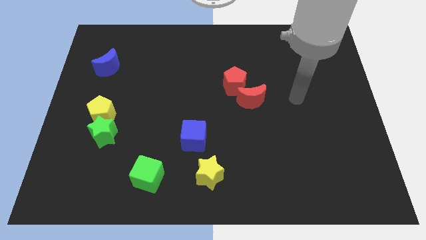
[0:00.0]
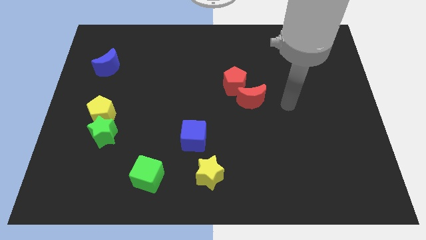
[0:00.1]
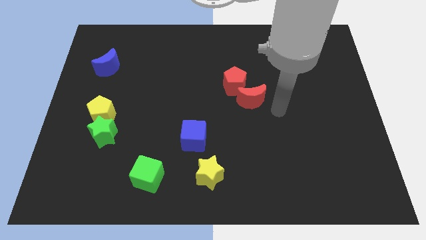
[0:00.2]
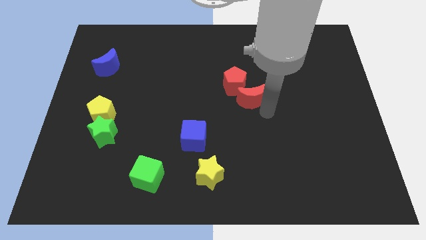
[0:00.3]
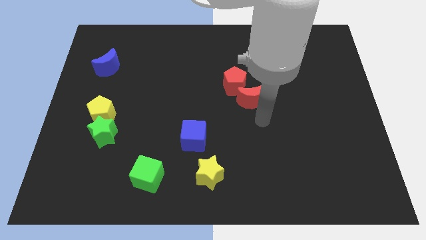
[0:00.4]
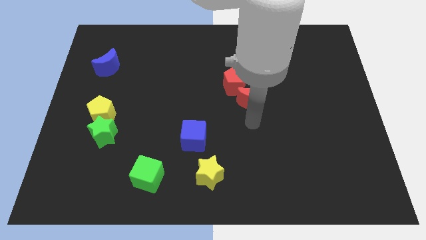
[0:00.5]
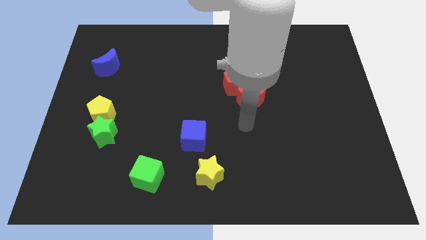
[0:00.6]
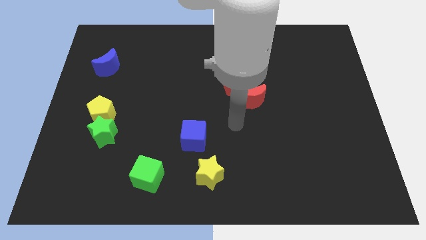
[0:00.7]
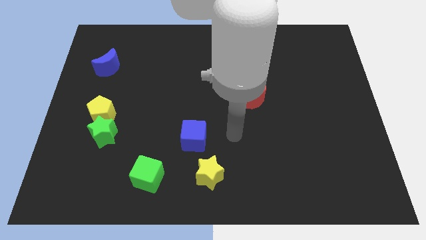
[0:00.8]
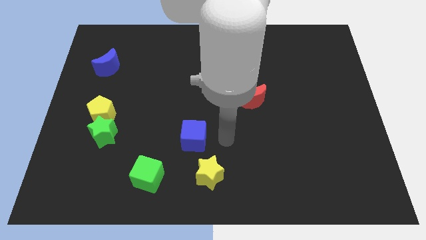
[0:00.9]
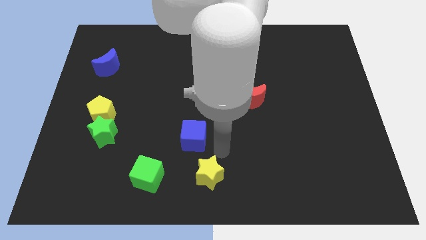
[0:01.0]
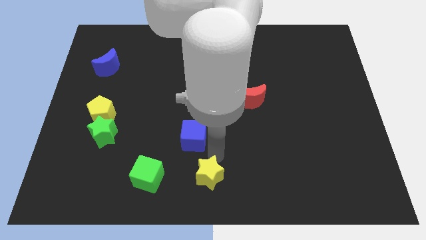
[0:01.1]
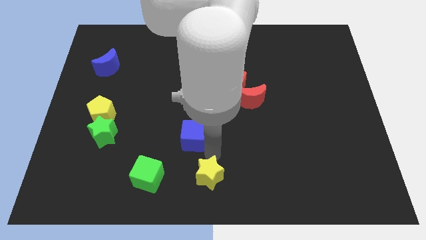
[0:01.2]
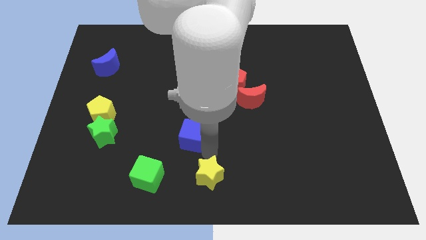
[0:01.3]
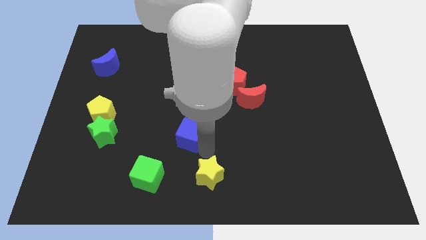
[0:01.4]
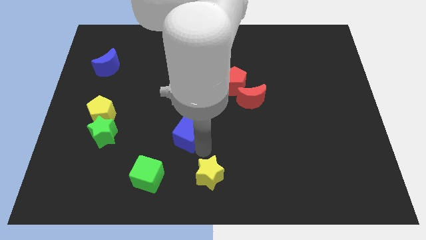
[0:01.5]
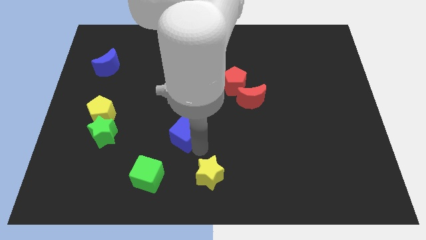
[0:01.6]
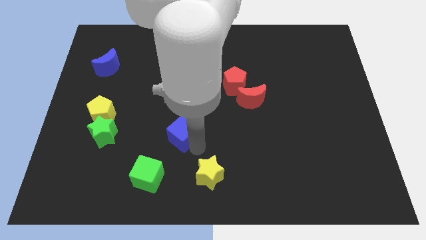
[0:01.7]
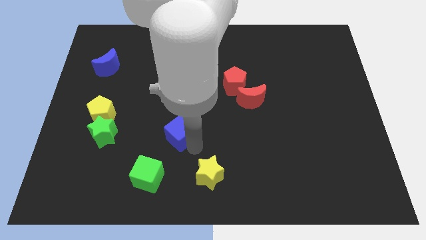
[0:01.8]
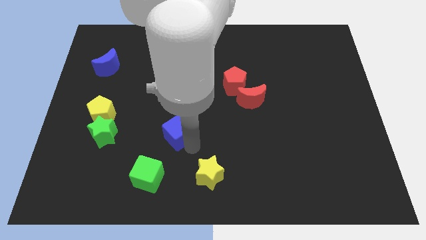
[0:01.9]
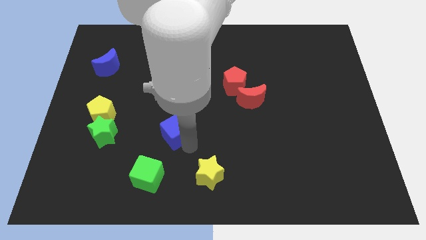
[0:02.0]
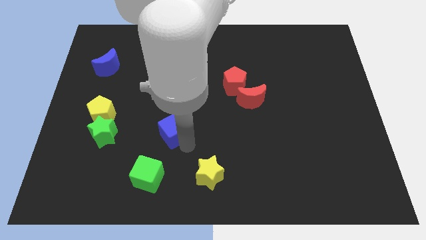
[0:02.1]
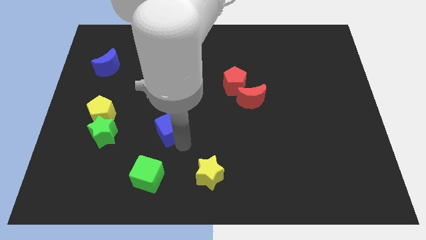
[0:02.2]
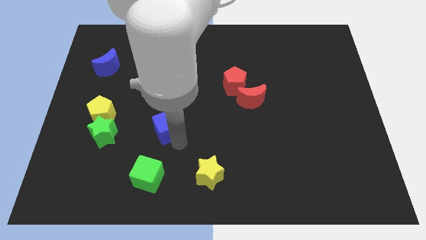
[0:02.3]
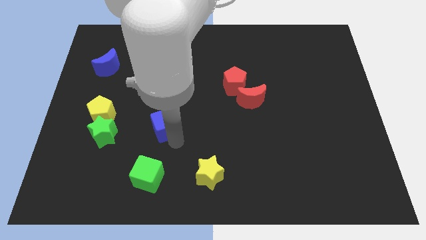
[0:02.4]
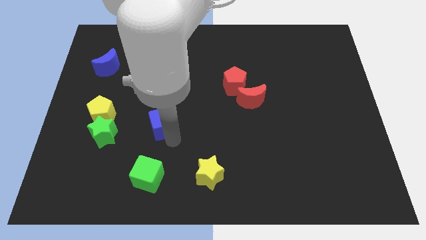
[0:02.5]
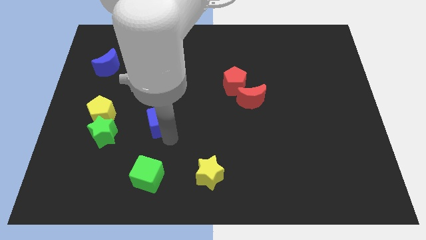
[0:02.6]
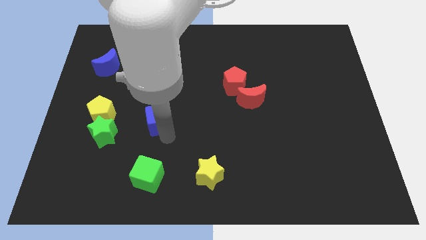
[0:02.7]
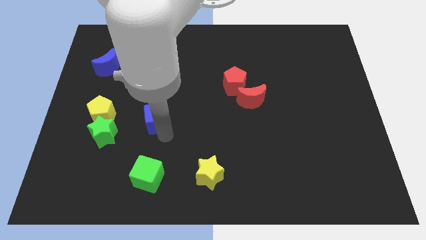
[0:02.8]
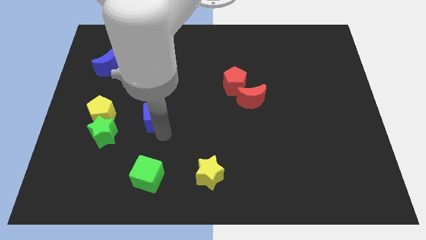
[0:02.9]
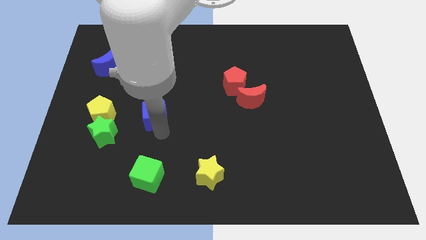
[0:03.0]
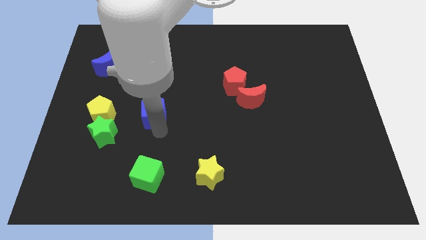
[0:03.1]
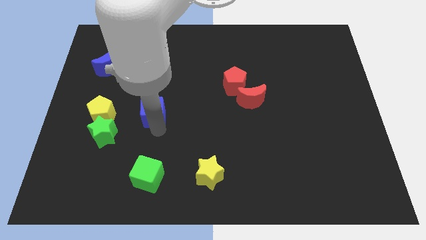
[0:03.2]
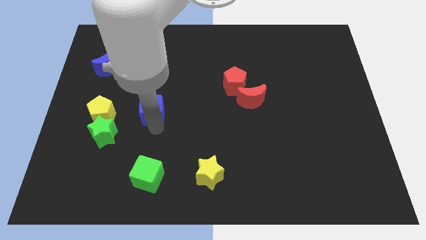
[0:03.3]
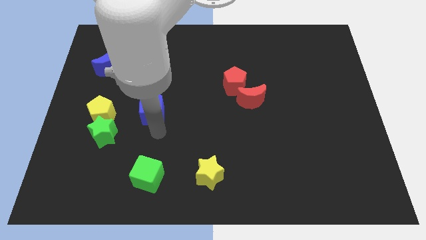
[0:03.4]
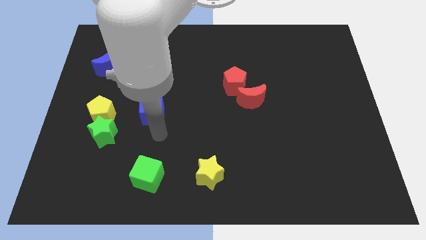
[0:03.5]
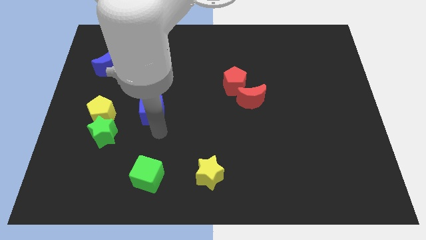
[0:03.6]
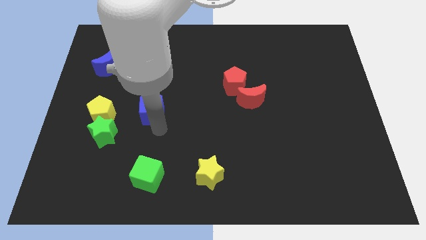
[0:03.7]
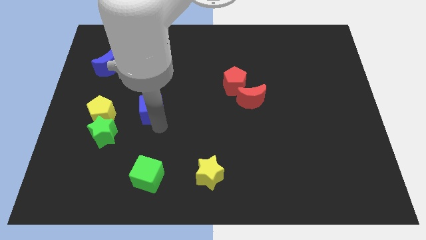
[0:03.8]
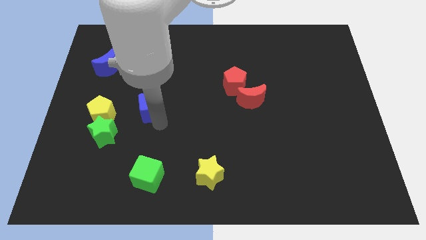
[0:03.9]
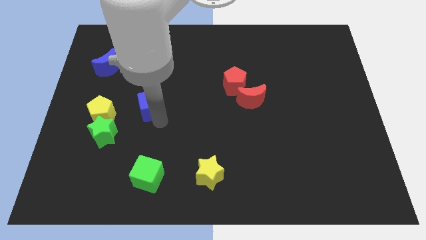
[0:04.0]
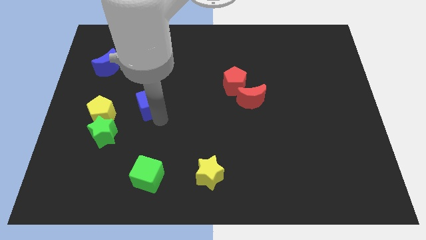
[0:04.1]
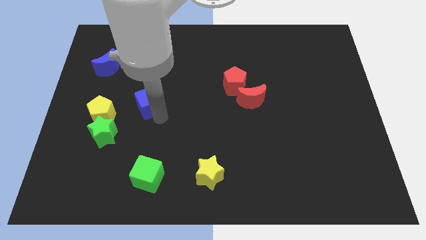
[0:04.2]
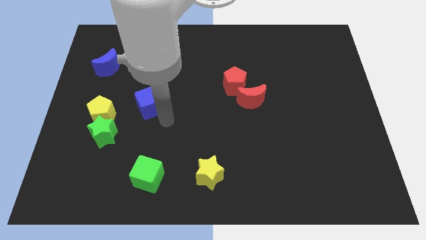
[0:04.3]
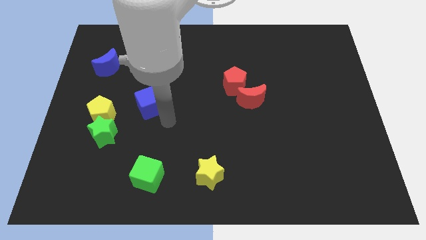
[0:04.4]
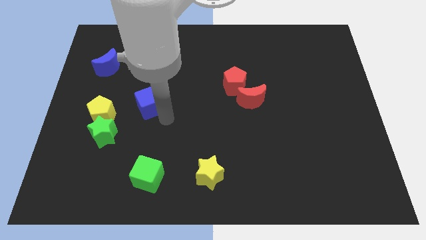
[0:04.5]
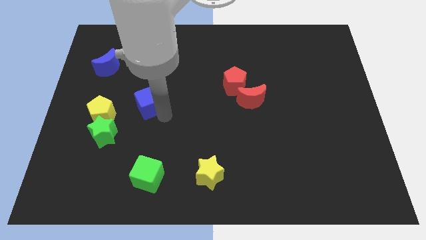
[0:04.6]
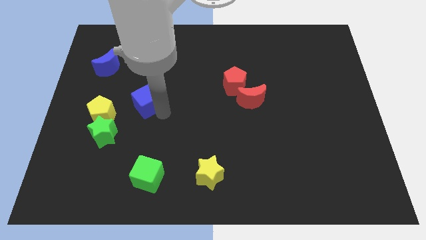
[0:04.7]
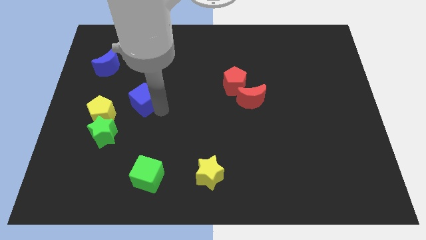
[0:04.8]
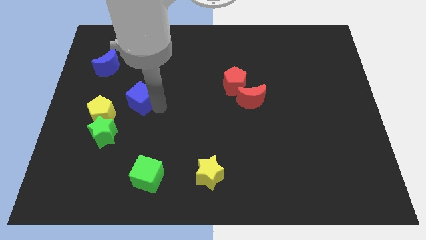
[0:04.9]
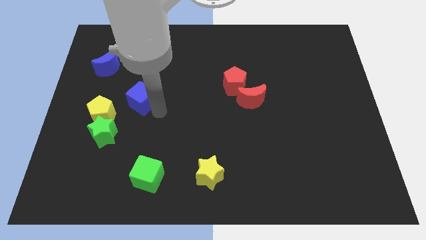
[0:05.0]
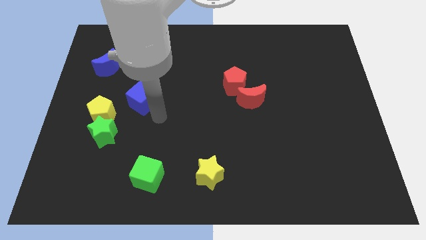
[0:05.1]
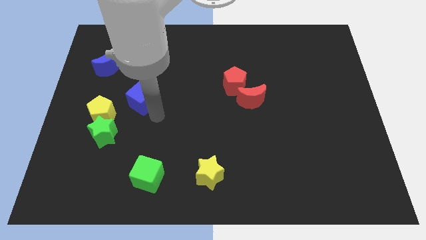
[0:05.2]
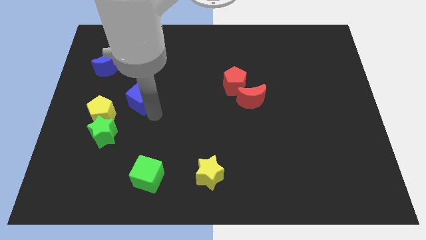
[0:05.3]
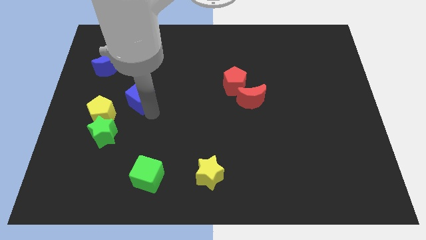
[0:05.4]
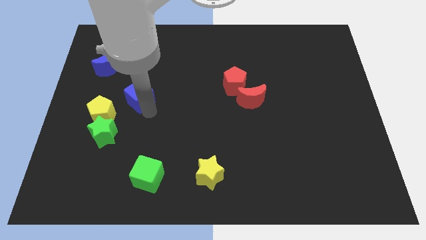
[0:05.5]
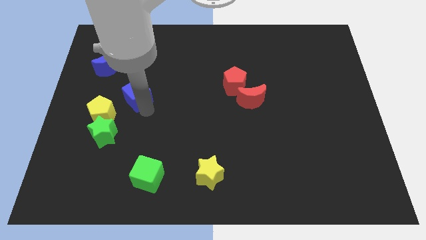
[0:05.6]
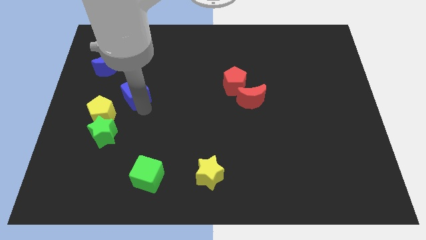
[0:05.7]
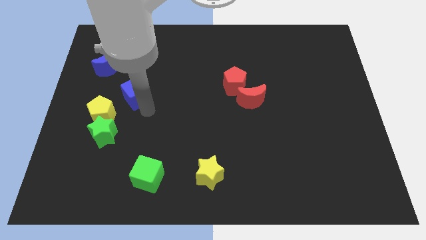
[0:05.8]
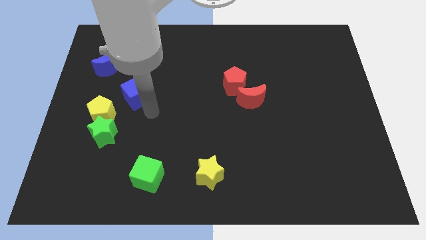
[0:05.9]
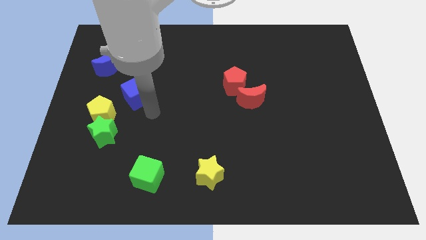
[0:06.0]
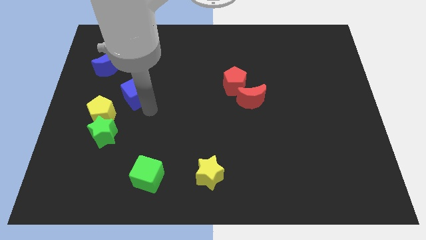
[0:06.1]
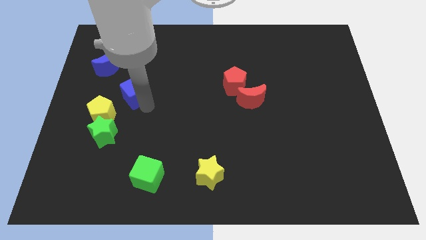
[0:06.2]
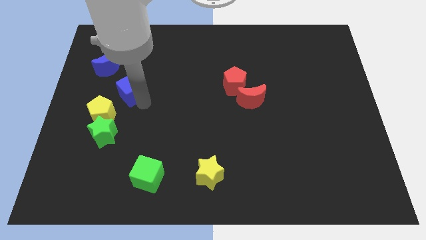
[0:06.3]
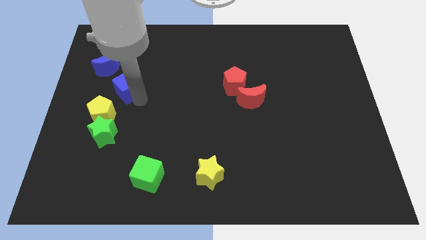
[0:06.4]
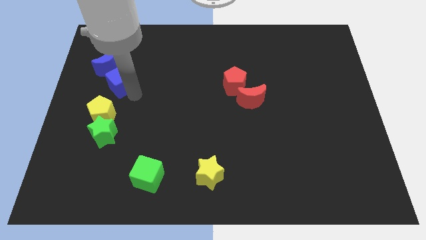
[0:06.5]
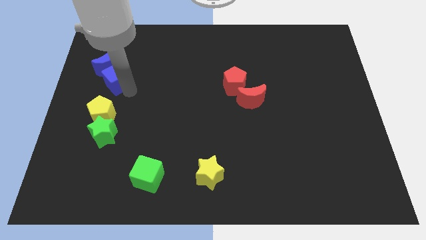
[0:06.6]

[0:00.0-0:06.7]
slide the blue cube to the blue moon

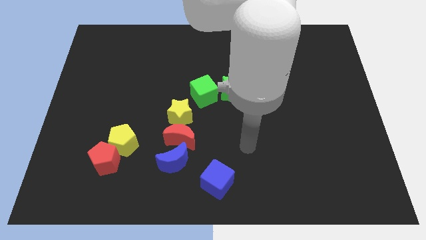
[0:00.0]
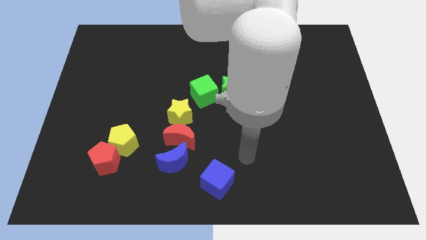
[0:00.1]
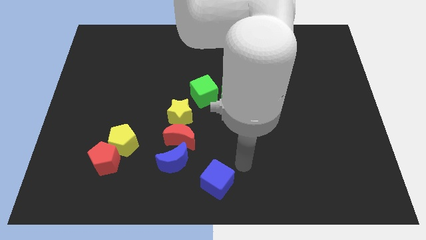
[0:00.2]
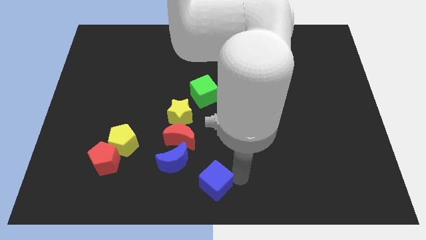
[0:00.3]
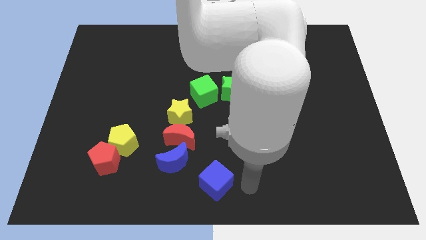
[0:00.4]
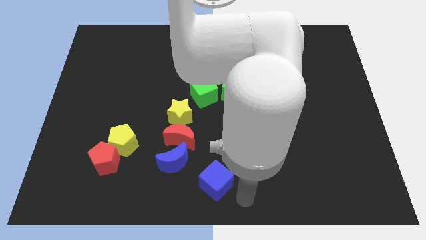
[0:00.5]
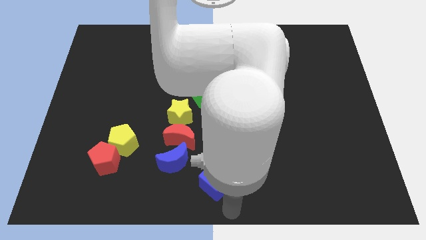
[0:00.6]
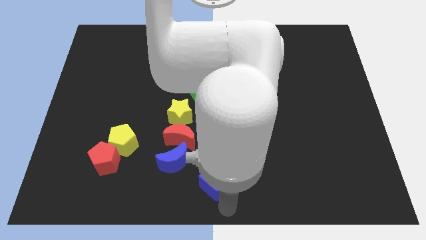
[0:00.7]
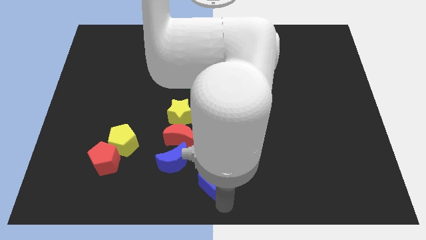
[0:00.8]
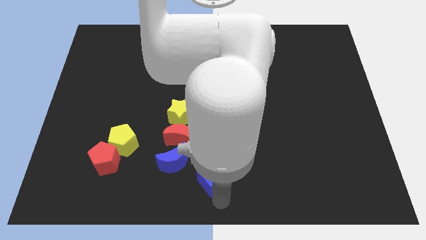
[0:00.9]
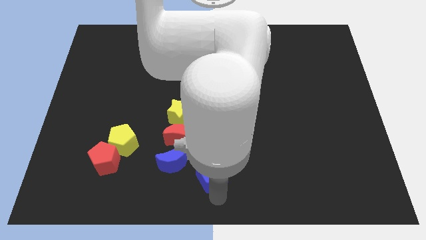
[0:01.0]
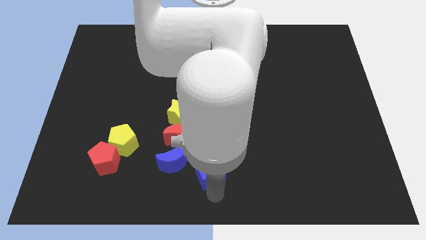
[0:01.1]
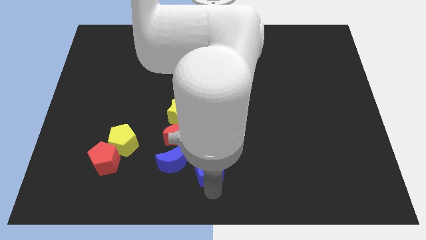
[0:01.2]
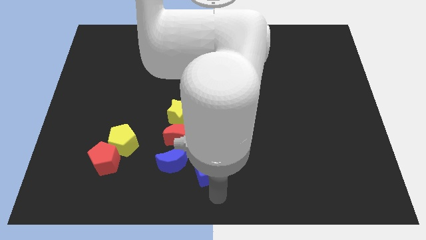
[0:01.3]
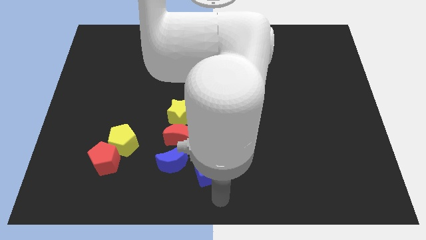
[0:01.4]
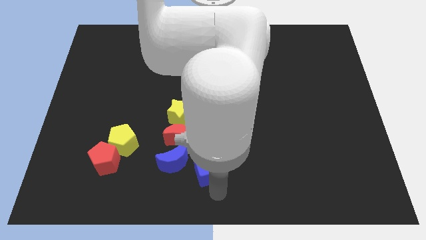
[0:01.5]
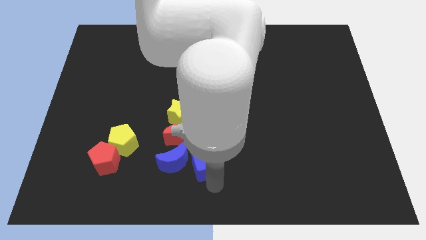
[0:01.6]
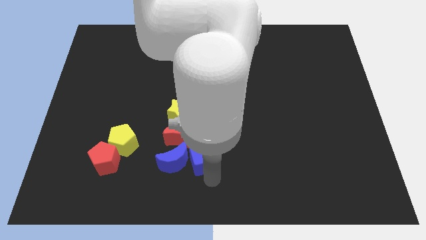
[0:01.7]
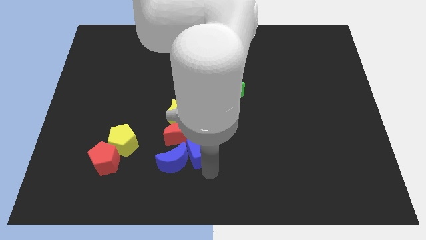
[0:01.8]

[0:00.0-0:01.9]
slide the blue cube next to the red moon
